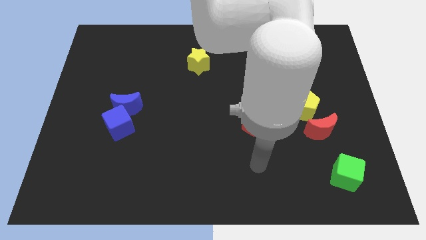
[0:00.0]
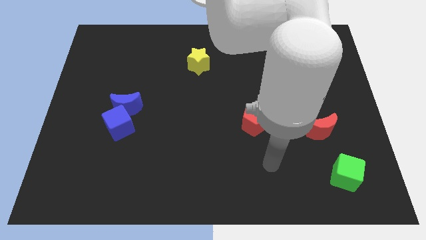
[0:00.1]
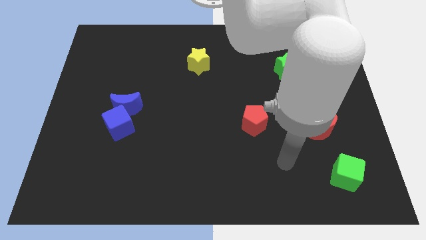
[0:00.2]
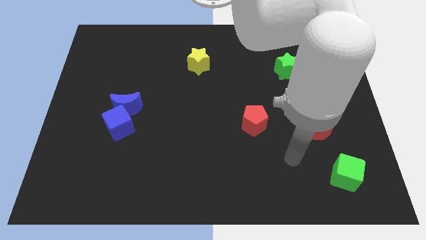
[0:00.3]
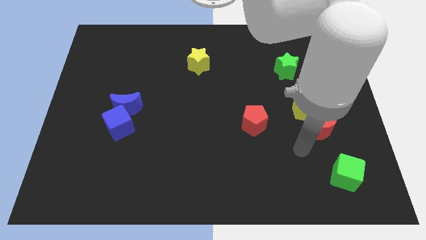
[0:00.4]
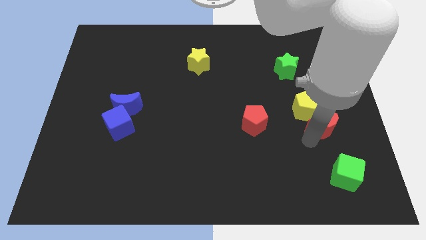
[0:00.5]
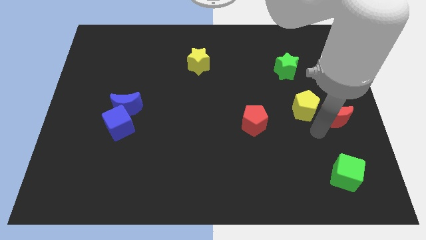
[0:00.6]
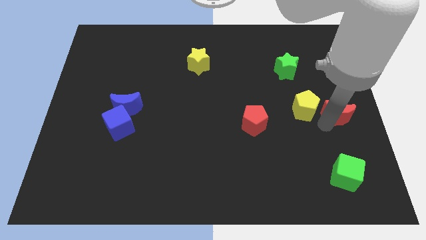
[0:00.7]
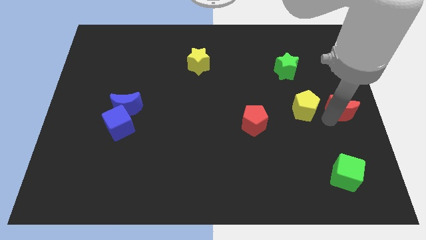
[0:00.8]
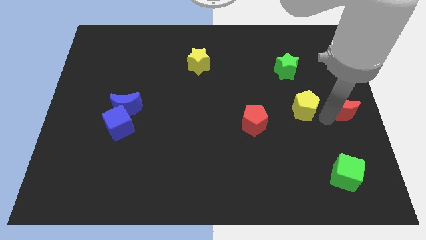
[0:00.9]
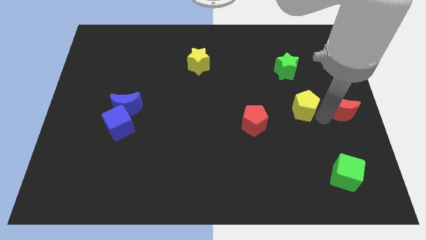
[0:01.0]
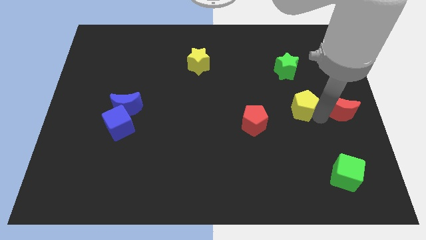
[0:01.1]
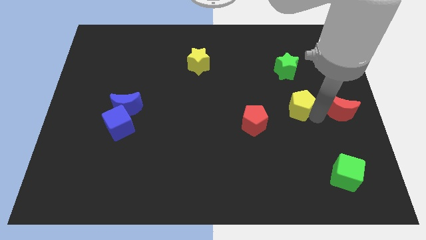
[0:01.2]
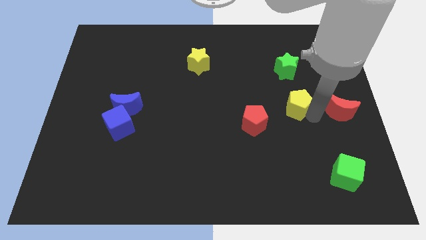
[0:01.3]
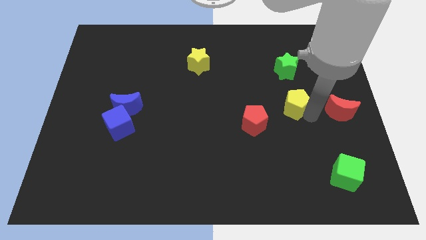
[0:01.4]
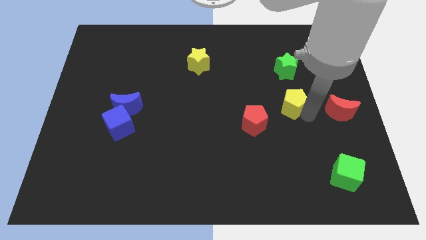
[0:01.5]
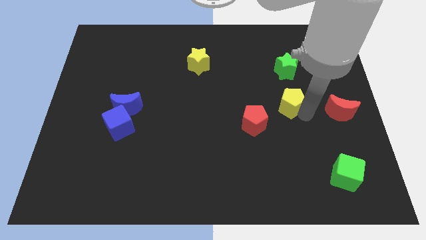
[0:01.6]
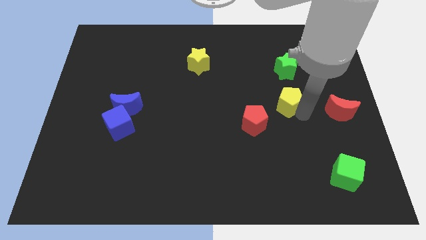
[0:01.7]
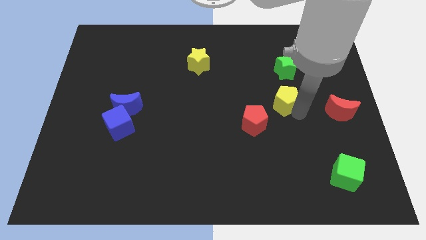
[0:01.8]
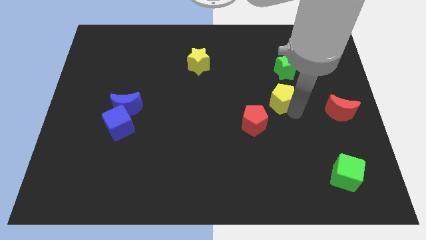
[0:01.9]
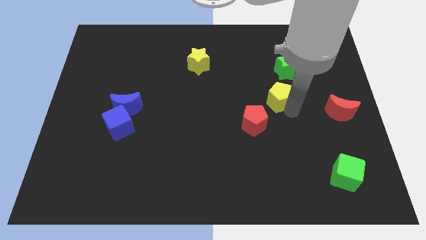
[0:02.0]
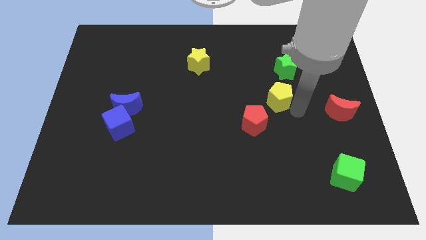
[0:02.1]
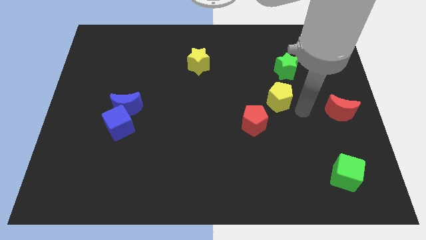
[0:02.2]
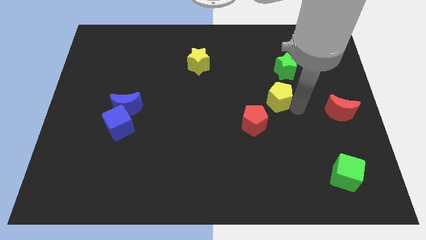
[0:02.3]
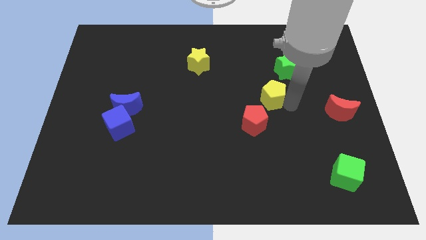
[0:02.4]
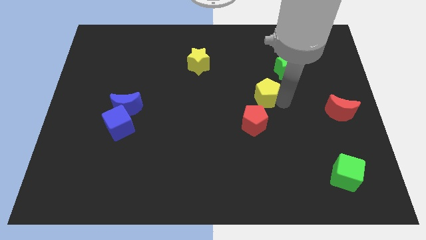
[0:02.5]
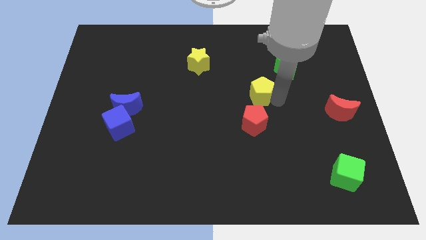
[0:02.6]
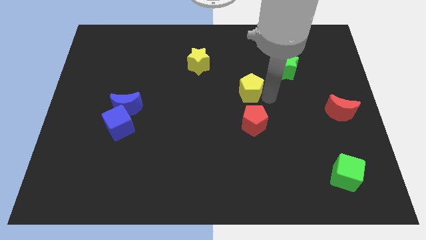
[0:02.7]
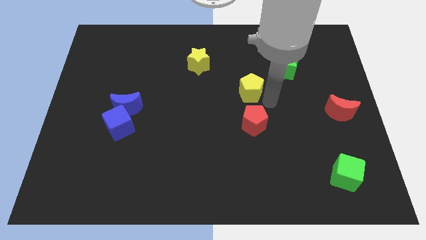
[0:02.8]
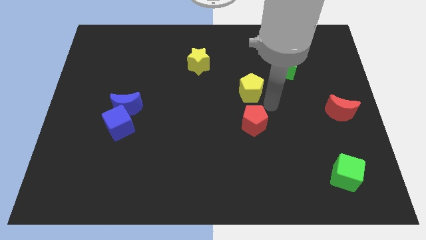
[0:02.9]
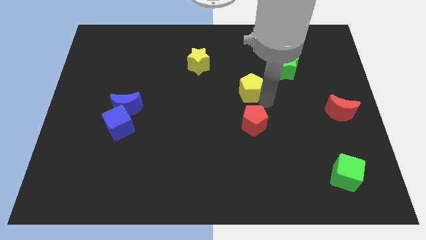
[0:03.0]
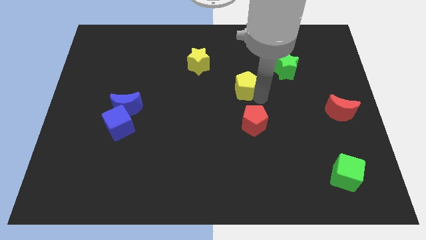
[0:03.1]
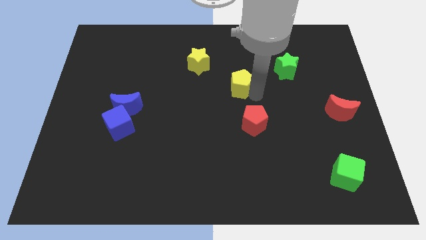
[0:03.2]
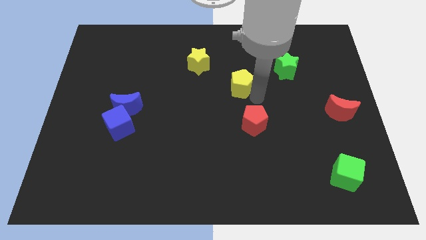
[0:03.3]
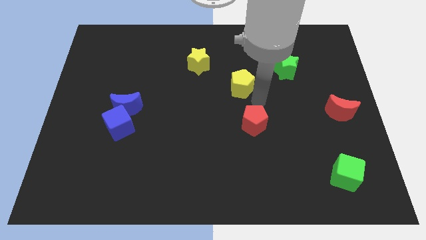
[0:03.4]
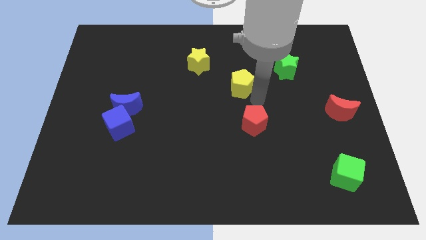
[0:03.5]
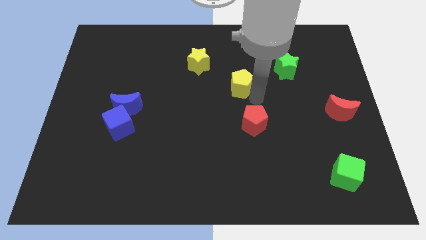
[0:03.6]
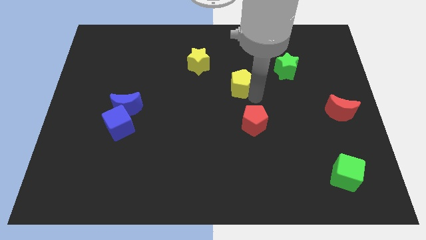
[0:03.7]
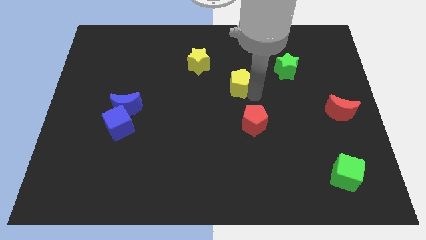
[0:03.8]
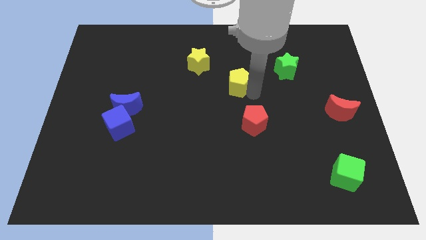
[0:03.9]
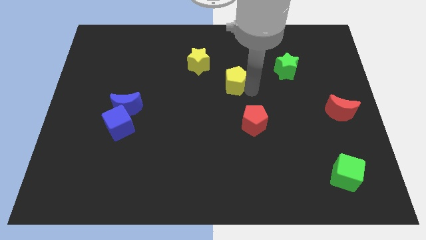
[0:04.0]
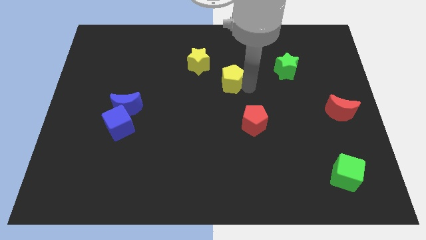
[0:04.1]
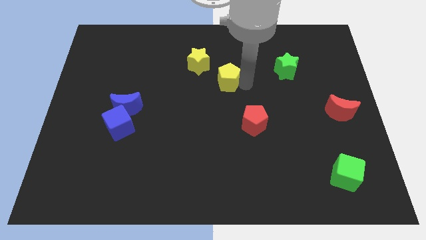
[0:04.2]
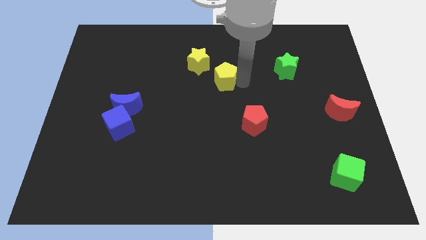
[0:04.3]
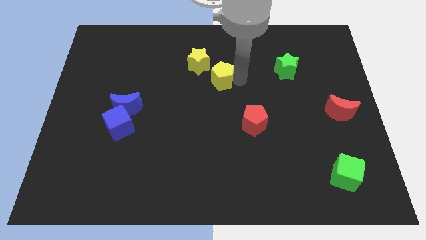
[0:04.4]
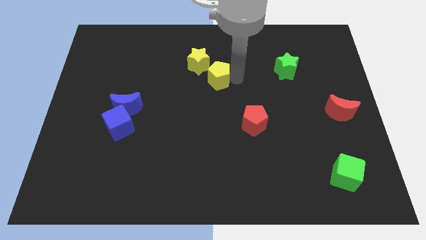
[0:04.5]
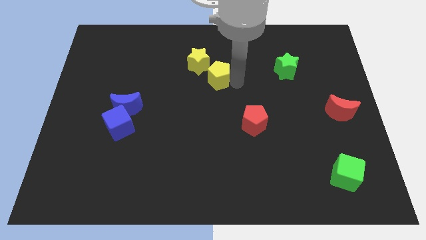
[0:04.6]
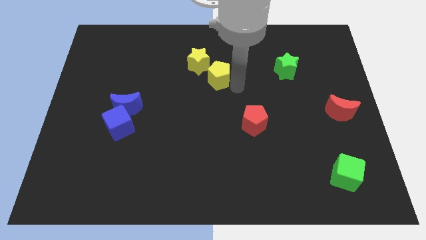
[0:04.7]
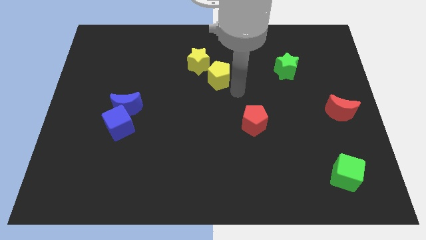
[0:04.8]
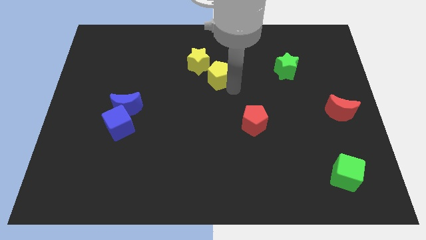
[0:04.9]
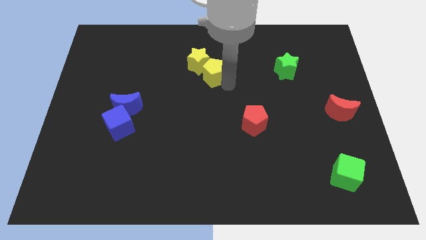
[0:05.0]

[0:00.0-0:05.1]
push the yellow pentagon close to the yellow star

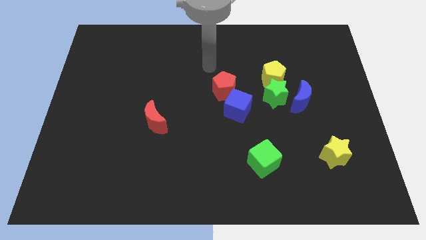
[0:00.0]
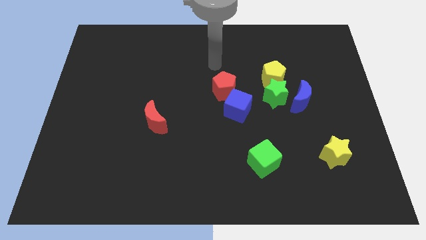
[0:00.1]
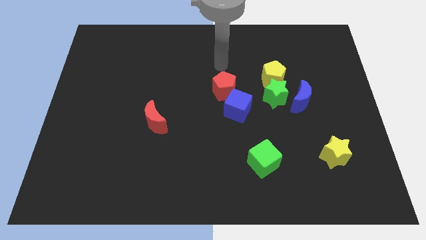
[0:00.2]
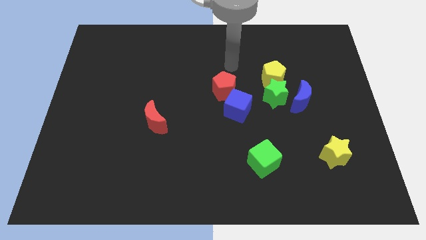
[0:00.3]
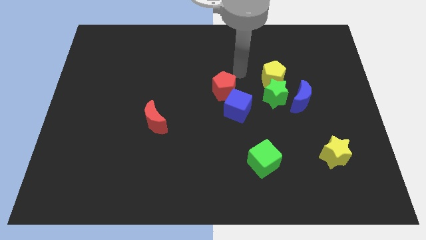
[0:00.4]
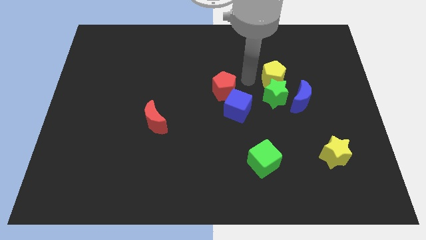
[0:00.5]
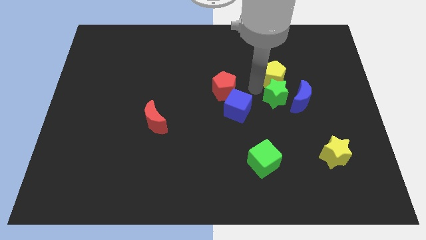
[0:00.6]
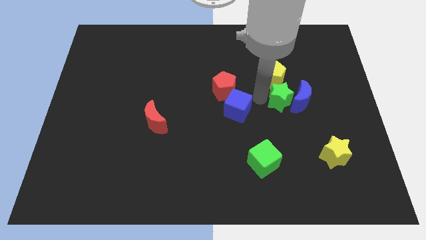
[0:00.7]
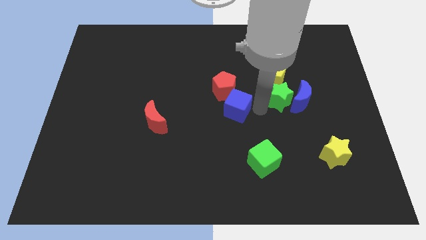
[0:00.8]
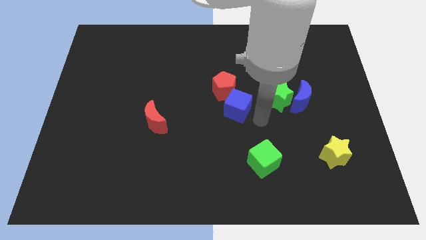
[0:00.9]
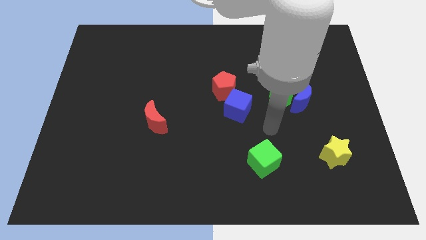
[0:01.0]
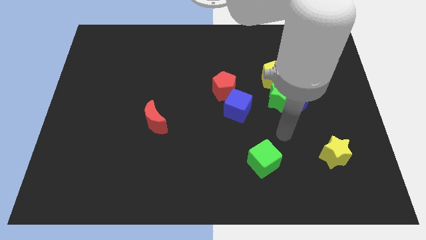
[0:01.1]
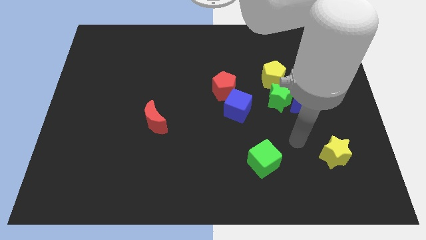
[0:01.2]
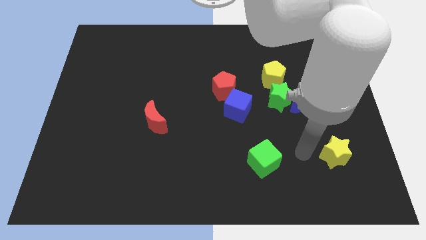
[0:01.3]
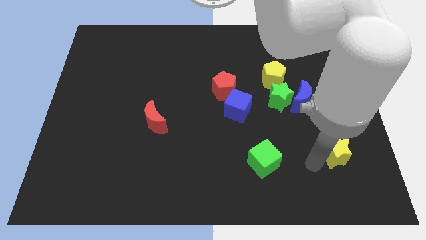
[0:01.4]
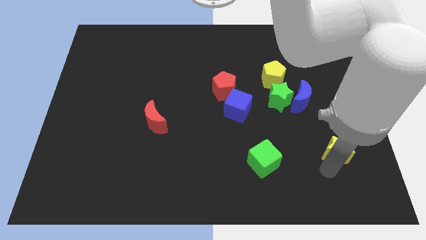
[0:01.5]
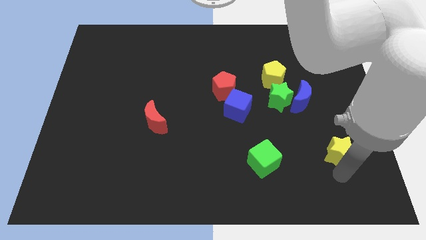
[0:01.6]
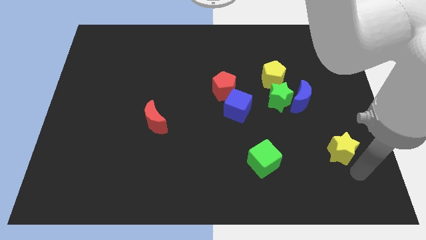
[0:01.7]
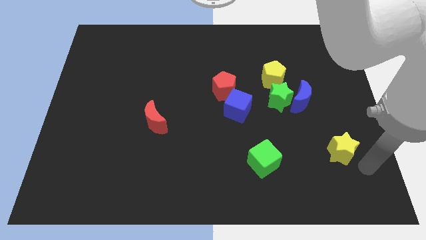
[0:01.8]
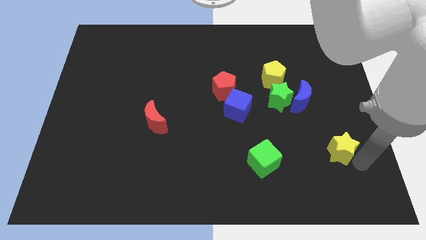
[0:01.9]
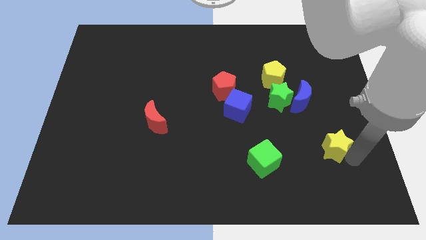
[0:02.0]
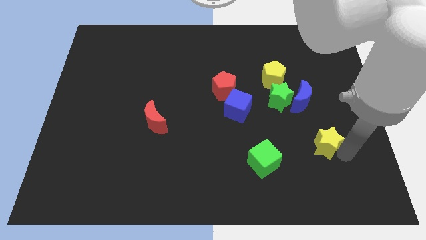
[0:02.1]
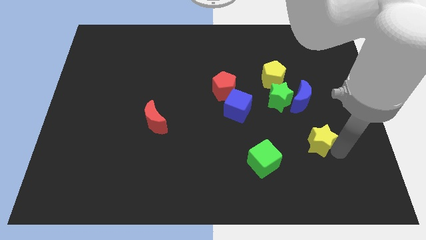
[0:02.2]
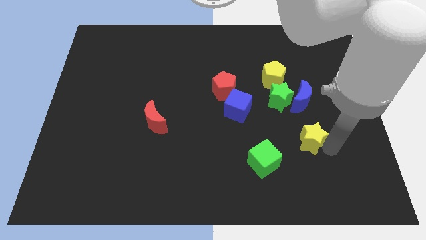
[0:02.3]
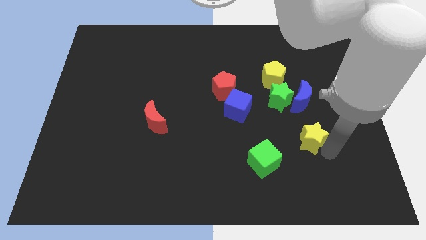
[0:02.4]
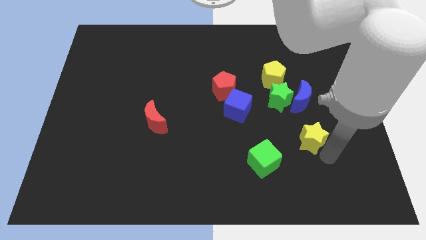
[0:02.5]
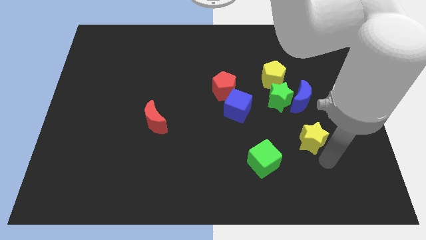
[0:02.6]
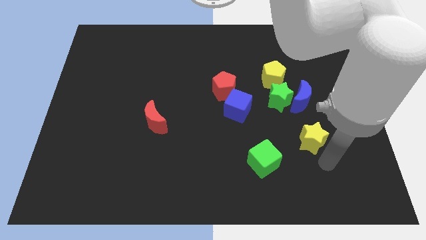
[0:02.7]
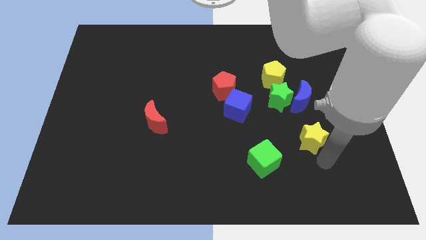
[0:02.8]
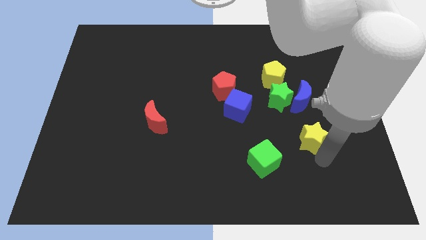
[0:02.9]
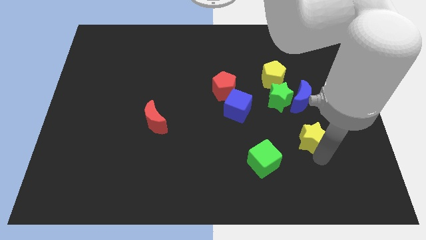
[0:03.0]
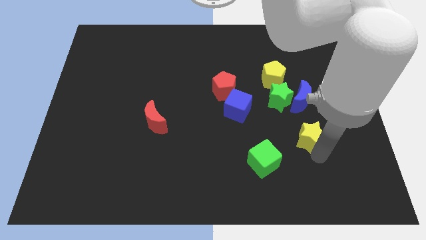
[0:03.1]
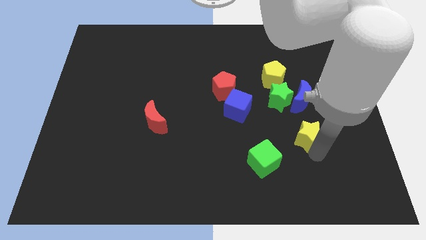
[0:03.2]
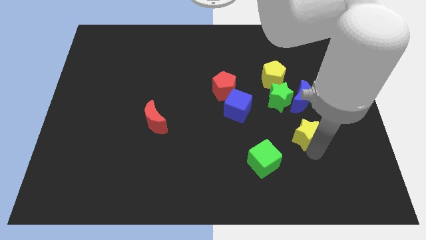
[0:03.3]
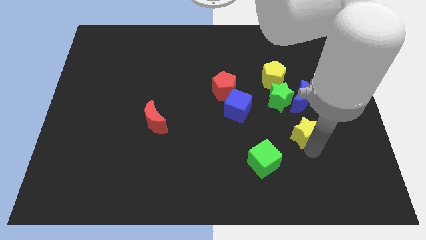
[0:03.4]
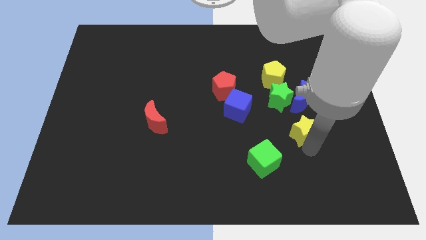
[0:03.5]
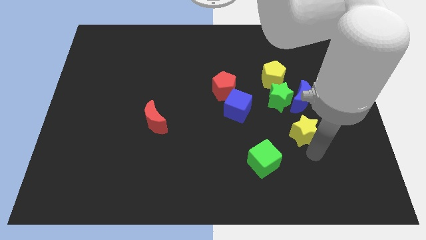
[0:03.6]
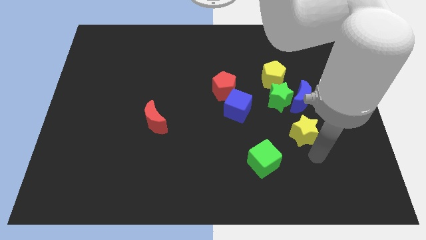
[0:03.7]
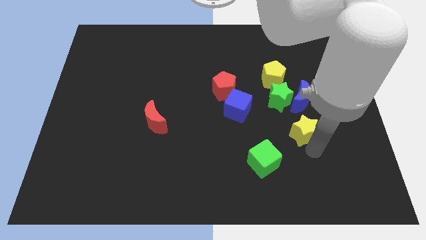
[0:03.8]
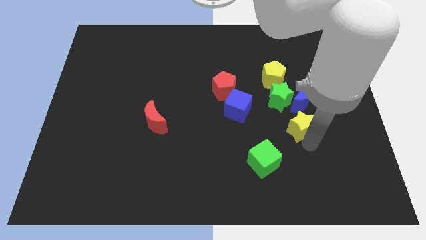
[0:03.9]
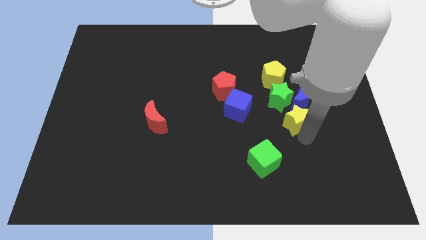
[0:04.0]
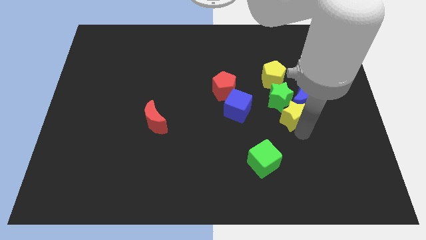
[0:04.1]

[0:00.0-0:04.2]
move the yellow star to the green star
